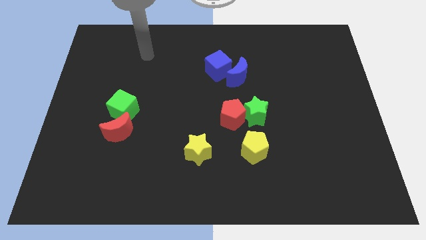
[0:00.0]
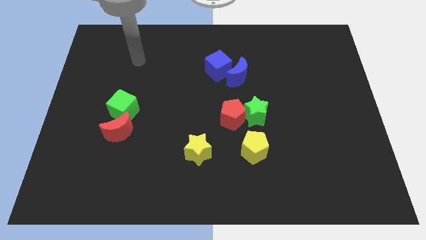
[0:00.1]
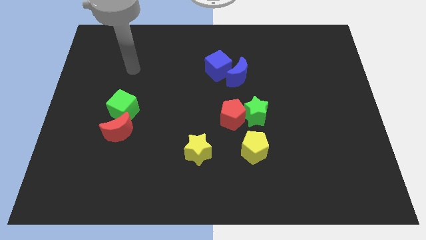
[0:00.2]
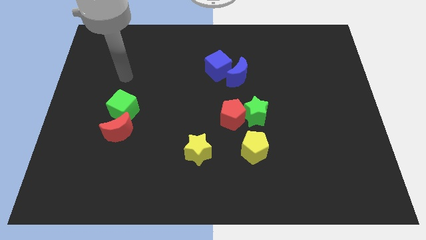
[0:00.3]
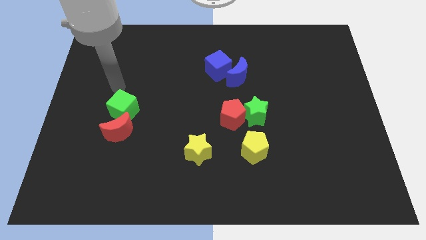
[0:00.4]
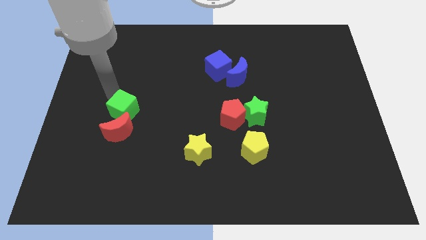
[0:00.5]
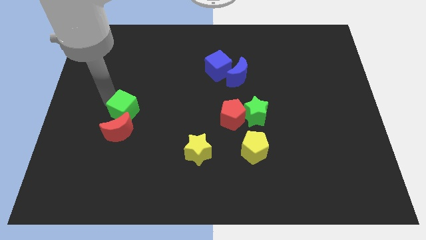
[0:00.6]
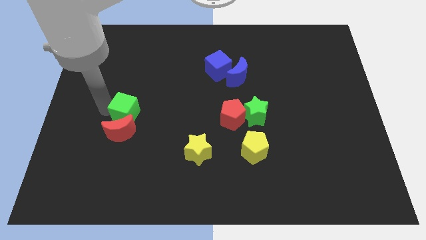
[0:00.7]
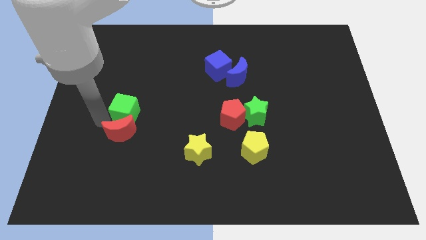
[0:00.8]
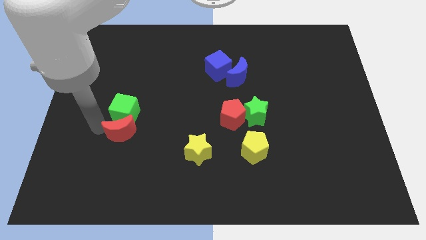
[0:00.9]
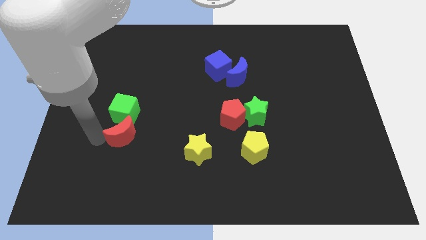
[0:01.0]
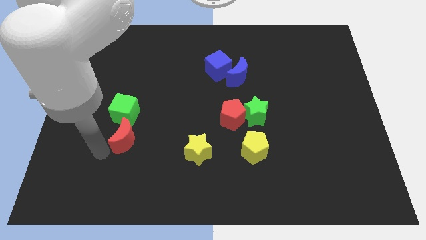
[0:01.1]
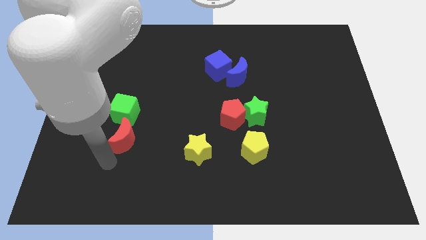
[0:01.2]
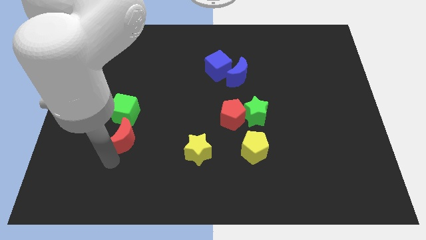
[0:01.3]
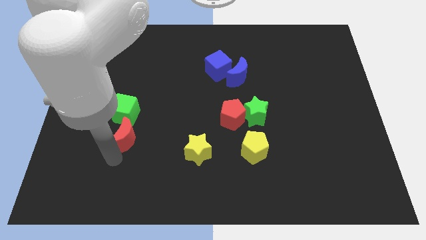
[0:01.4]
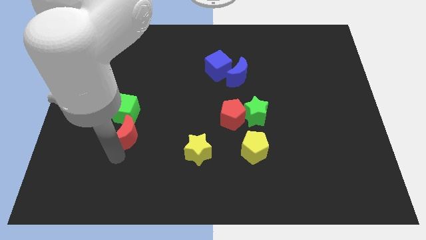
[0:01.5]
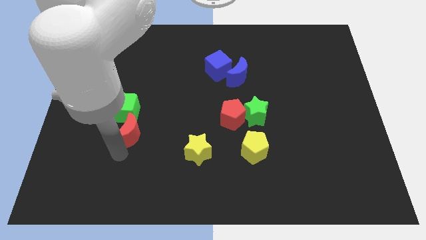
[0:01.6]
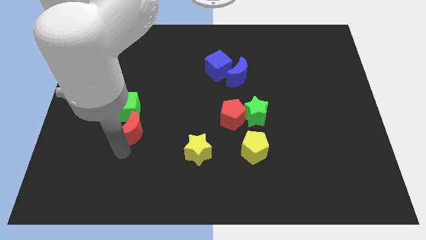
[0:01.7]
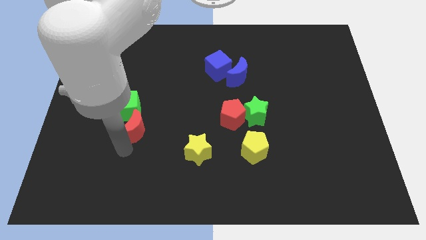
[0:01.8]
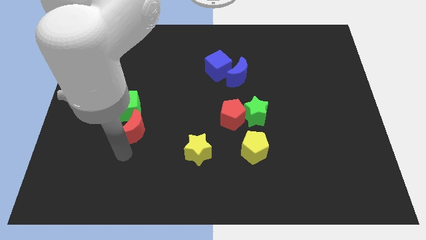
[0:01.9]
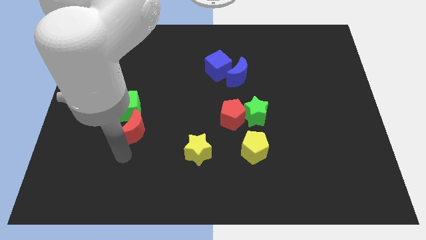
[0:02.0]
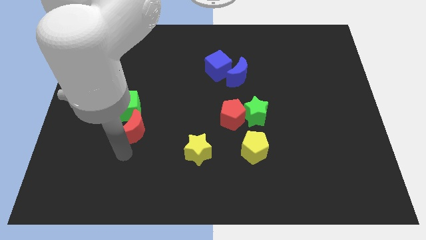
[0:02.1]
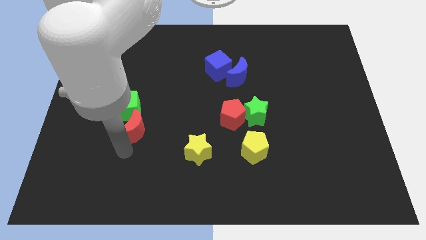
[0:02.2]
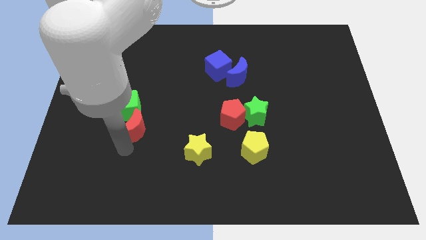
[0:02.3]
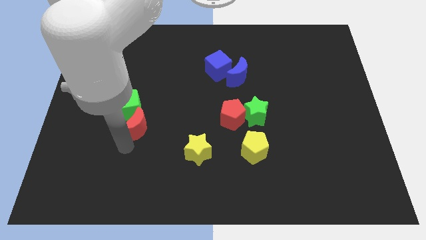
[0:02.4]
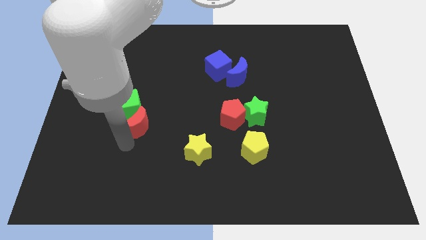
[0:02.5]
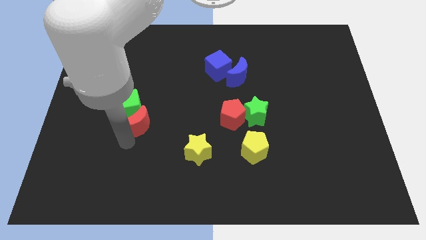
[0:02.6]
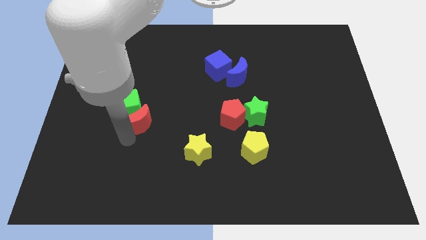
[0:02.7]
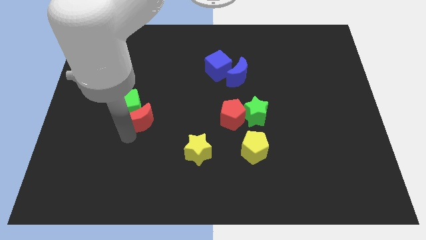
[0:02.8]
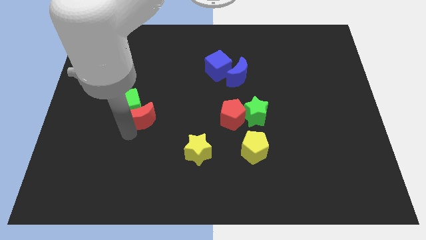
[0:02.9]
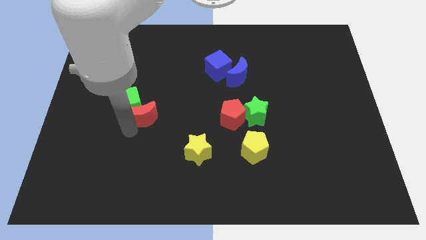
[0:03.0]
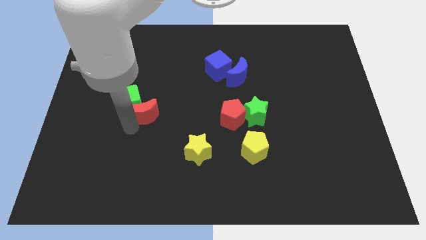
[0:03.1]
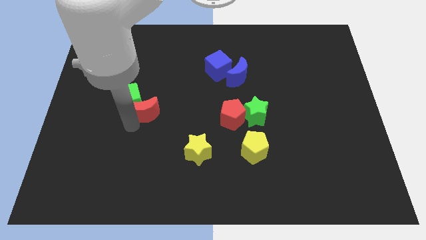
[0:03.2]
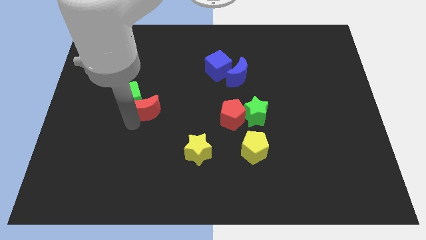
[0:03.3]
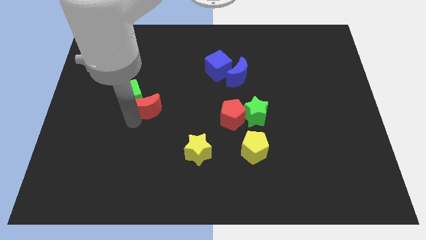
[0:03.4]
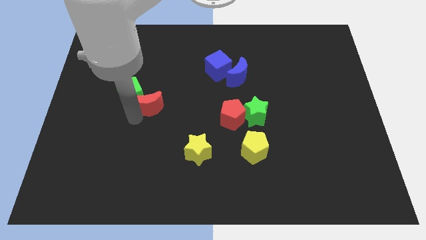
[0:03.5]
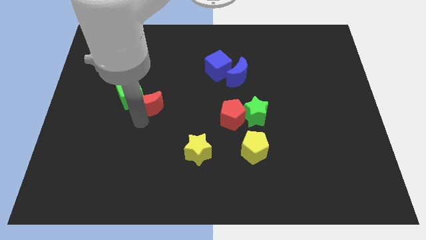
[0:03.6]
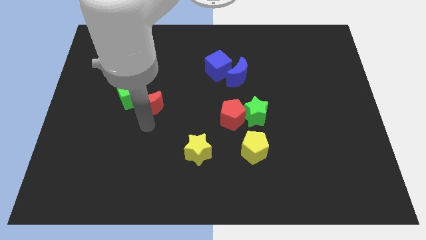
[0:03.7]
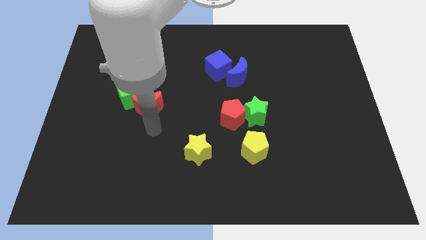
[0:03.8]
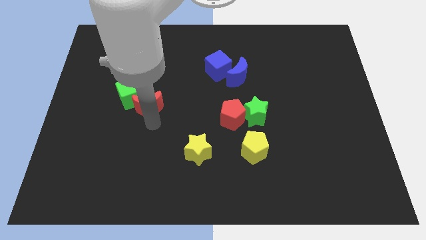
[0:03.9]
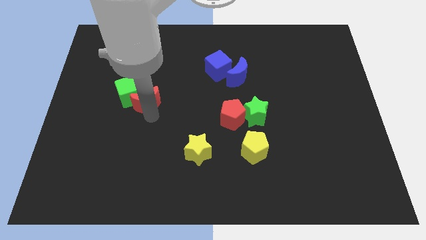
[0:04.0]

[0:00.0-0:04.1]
slide the red moon up a little bit

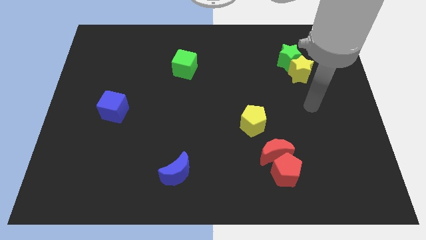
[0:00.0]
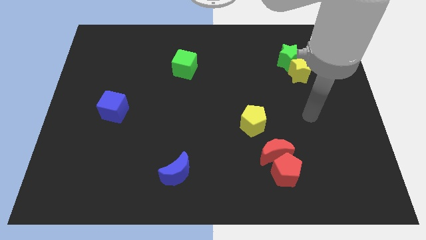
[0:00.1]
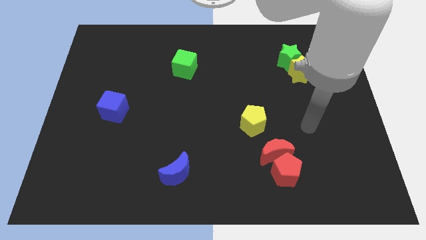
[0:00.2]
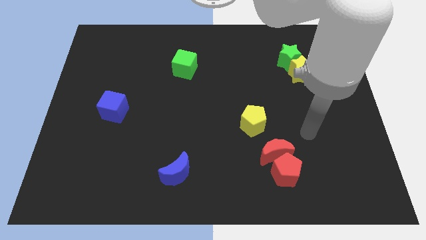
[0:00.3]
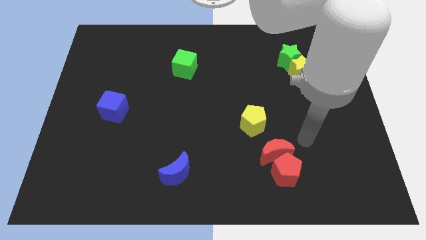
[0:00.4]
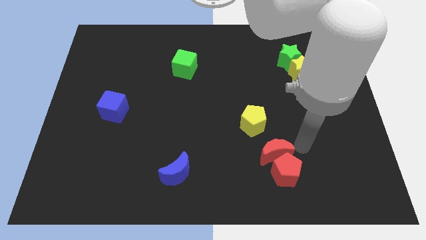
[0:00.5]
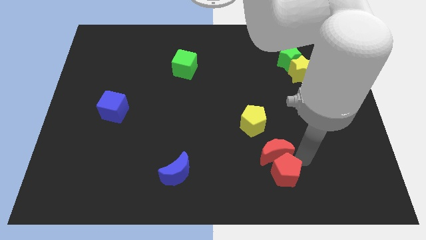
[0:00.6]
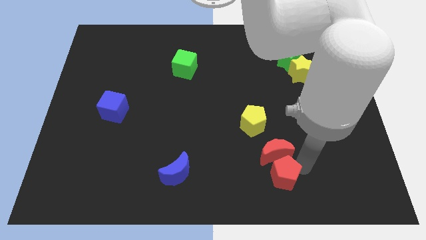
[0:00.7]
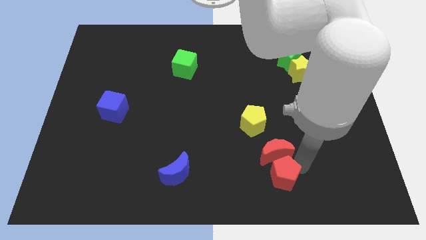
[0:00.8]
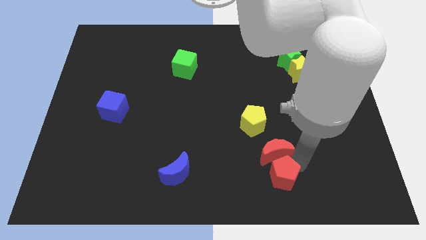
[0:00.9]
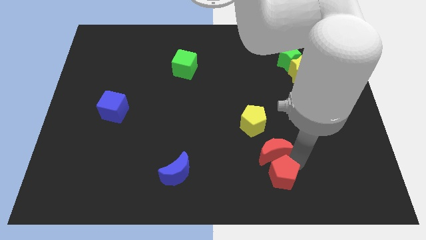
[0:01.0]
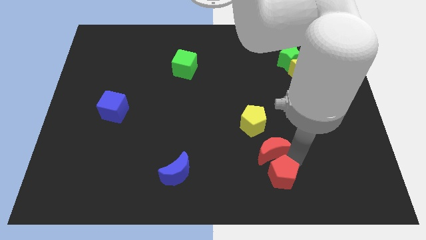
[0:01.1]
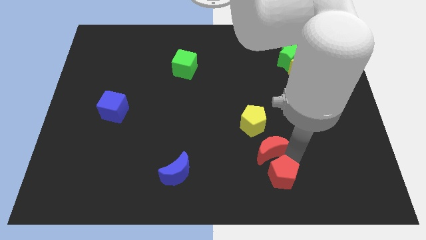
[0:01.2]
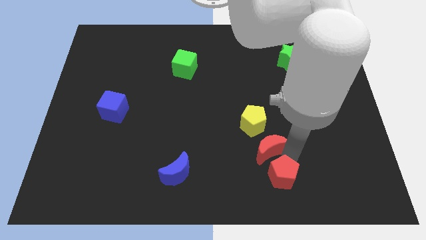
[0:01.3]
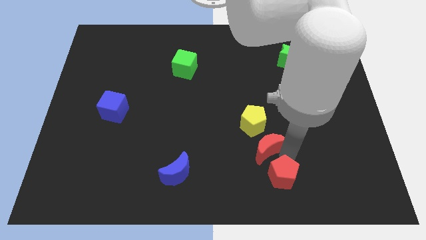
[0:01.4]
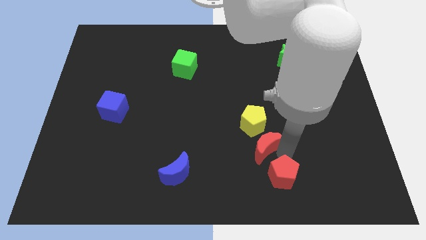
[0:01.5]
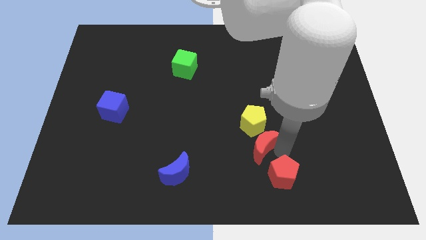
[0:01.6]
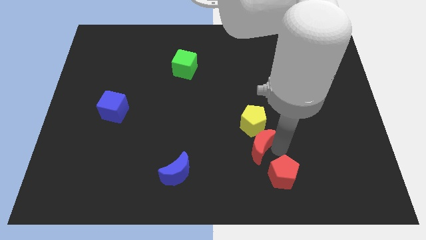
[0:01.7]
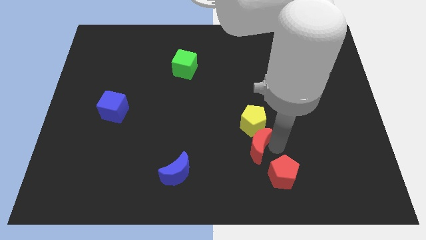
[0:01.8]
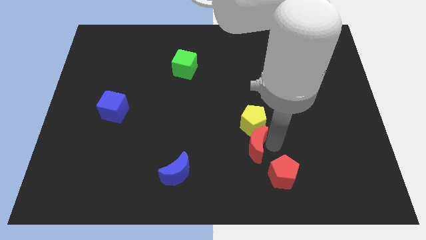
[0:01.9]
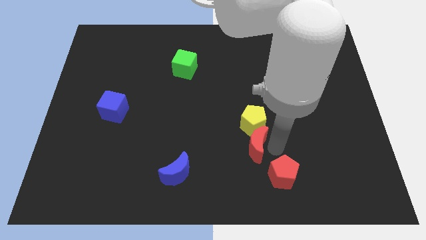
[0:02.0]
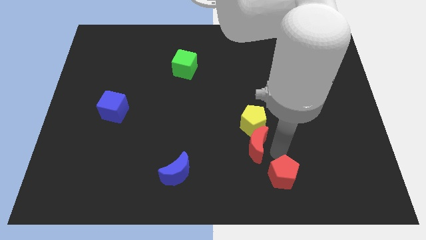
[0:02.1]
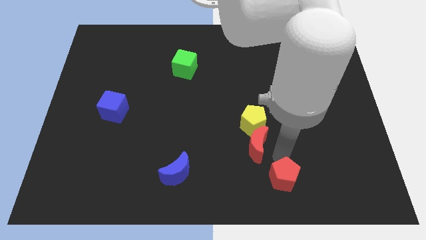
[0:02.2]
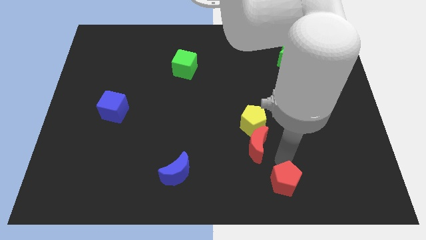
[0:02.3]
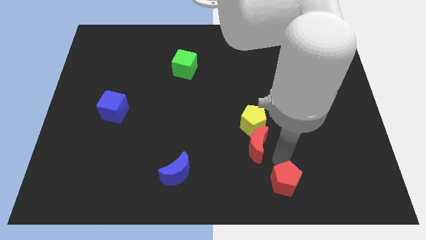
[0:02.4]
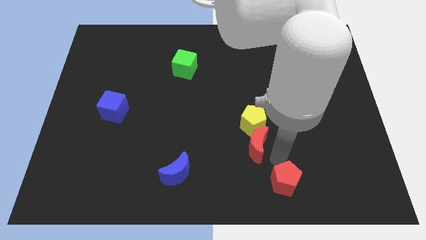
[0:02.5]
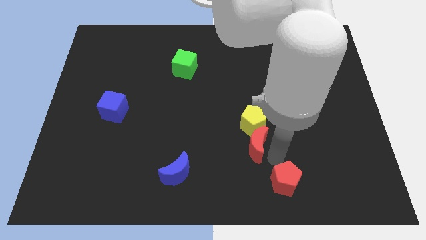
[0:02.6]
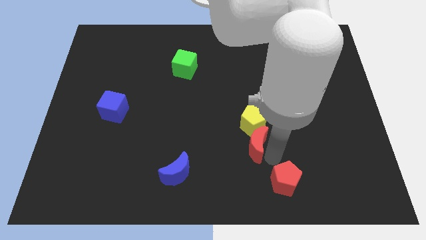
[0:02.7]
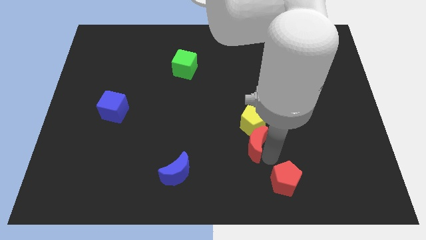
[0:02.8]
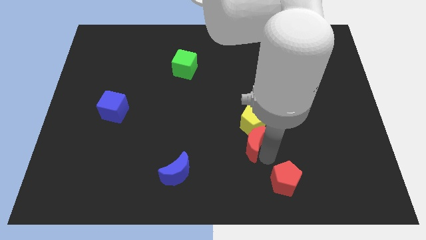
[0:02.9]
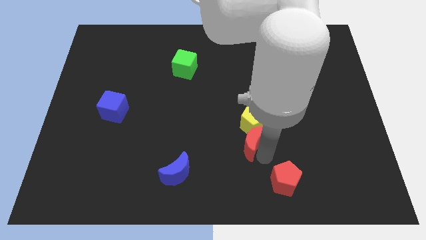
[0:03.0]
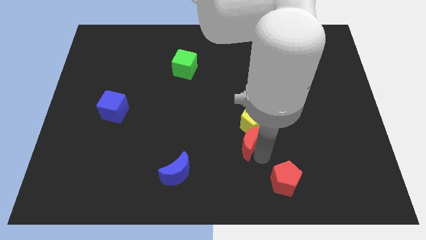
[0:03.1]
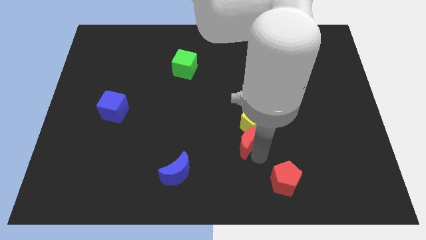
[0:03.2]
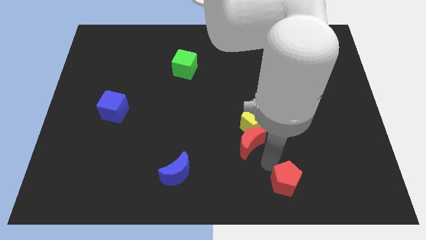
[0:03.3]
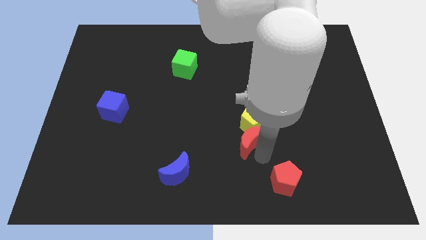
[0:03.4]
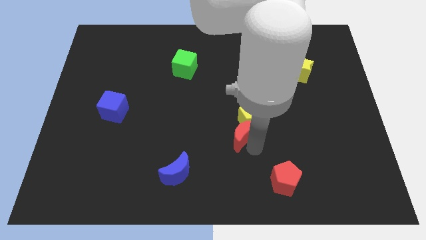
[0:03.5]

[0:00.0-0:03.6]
push the red moon upwards and left diagonally slightly

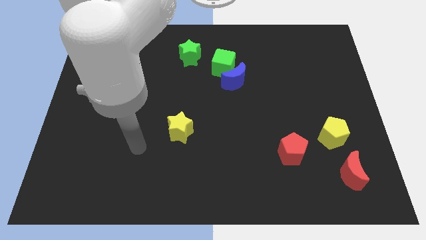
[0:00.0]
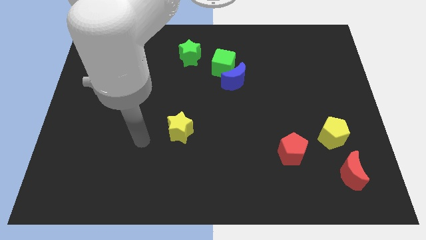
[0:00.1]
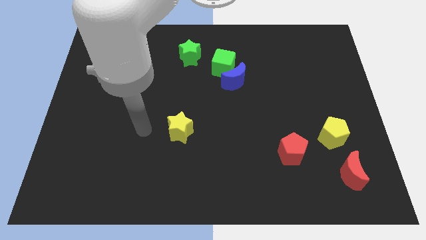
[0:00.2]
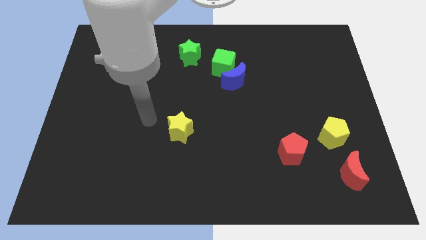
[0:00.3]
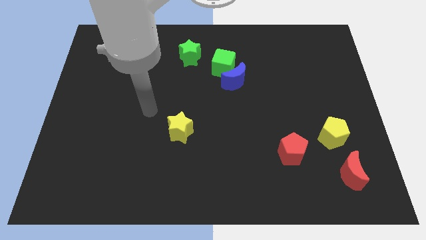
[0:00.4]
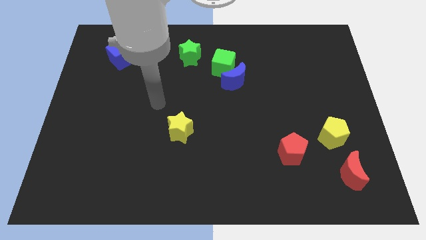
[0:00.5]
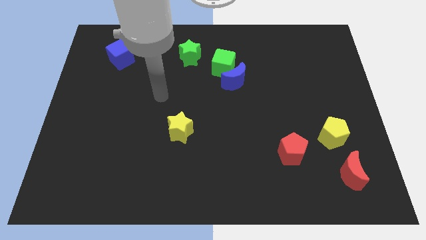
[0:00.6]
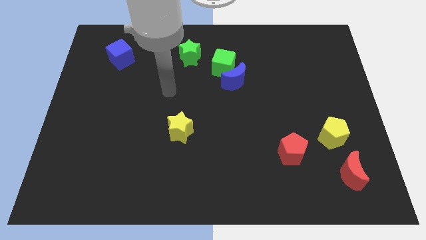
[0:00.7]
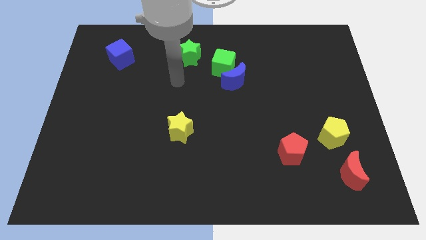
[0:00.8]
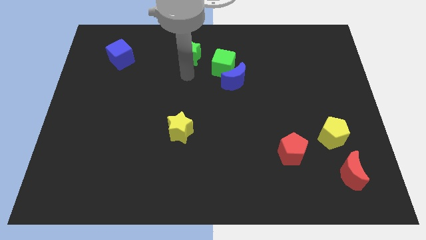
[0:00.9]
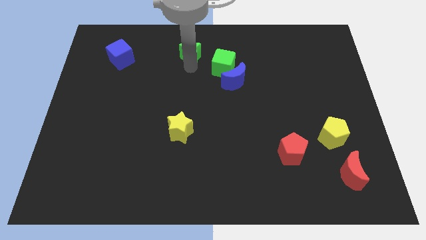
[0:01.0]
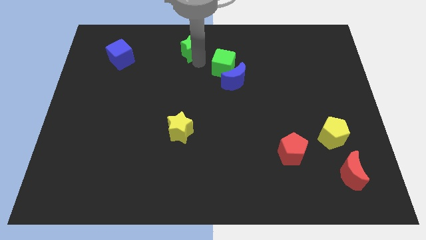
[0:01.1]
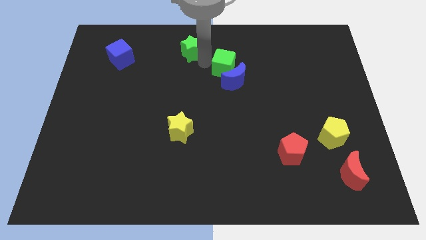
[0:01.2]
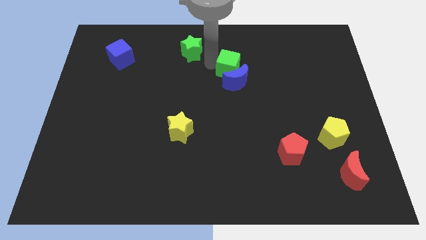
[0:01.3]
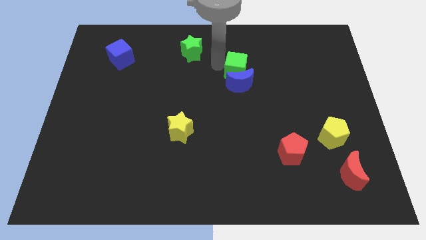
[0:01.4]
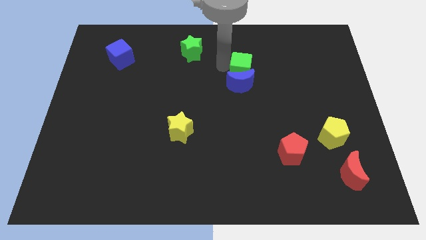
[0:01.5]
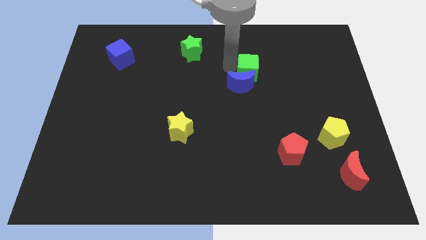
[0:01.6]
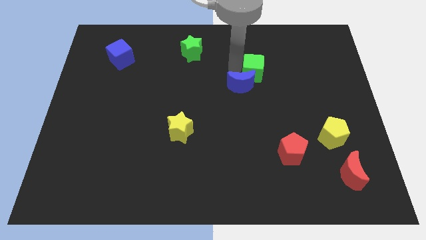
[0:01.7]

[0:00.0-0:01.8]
slightly slide the green cube to the right
